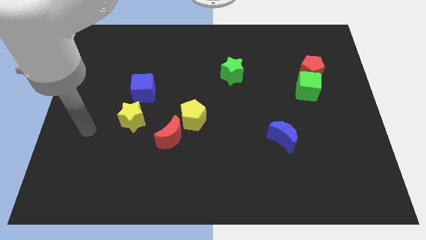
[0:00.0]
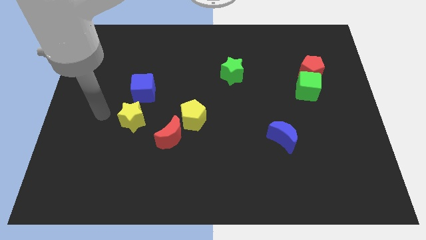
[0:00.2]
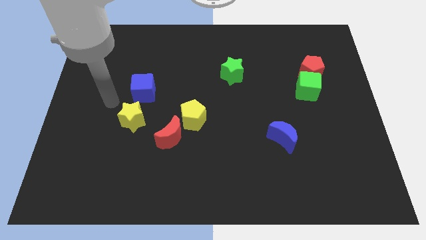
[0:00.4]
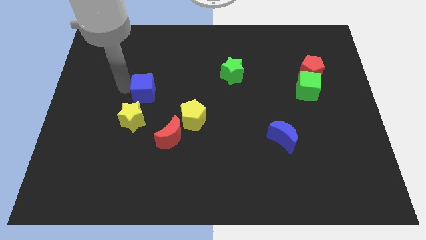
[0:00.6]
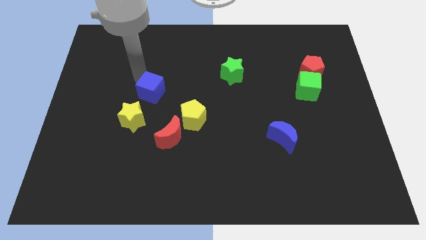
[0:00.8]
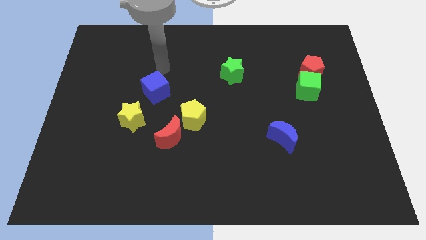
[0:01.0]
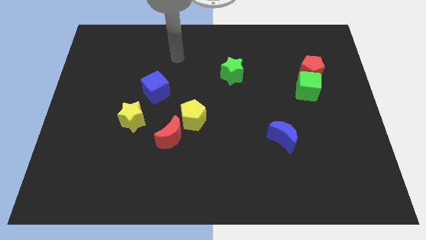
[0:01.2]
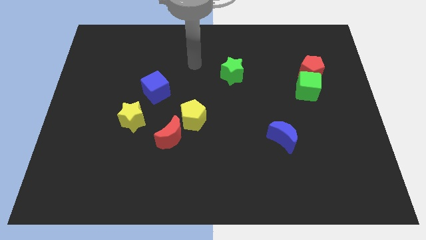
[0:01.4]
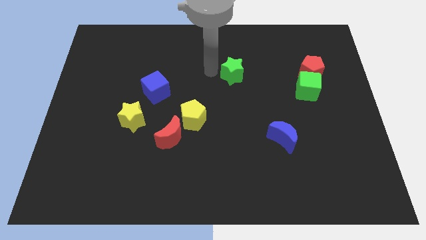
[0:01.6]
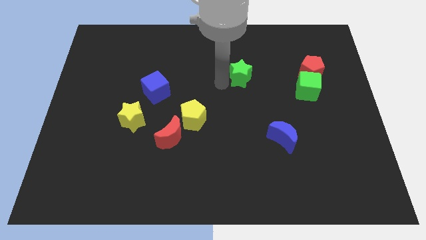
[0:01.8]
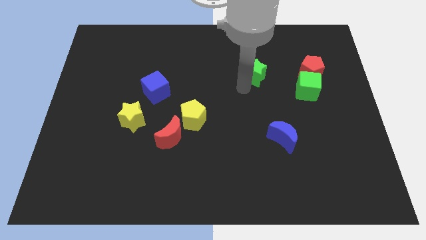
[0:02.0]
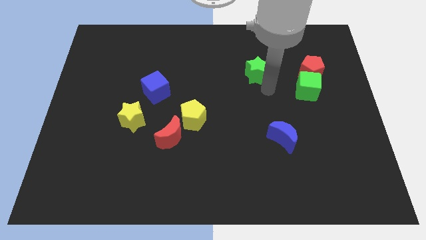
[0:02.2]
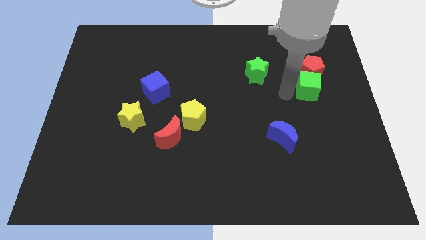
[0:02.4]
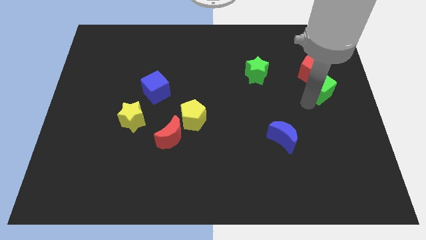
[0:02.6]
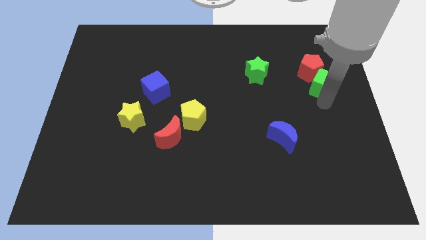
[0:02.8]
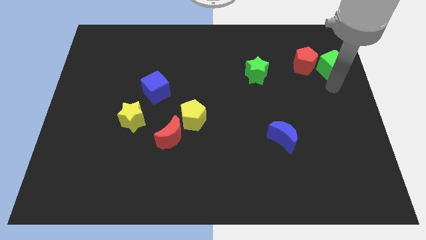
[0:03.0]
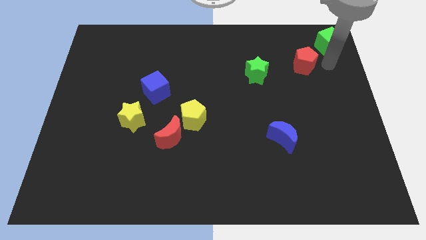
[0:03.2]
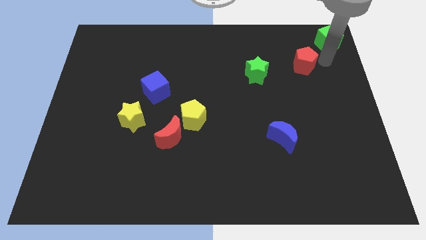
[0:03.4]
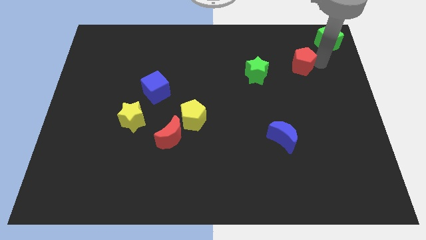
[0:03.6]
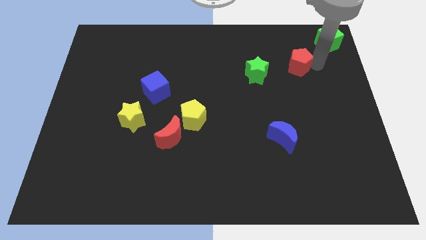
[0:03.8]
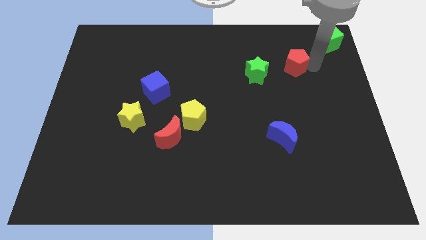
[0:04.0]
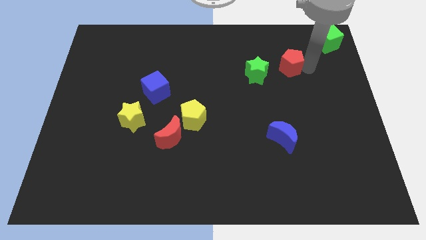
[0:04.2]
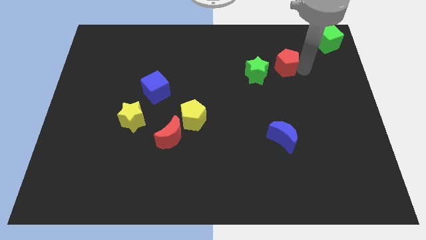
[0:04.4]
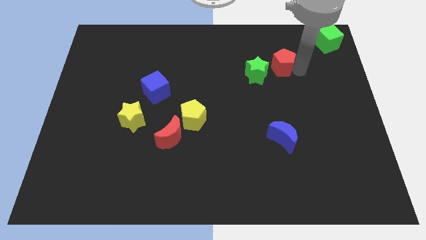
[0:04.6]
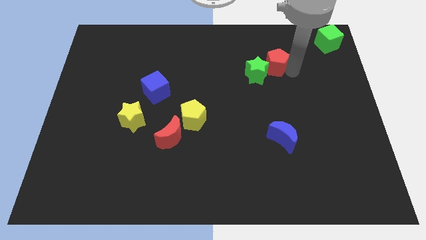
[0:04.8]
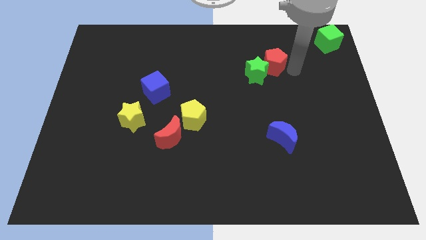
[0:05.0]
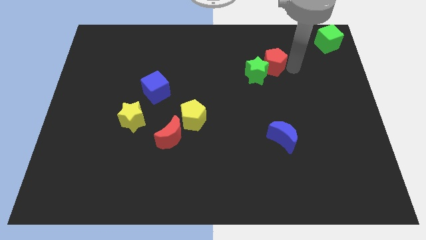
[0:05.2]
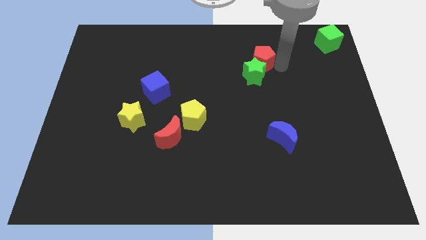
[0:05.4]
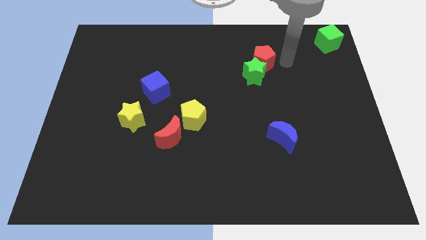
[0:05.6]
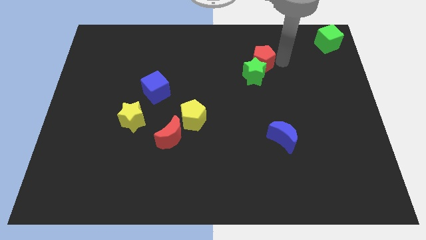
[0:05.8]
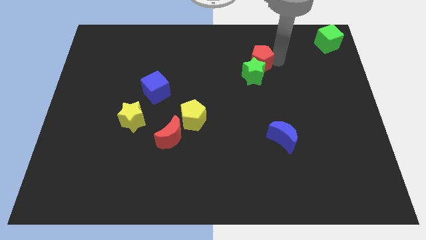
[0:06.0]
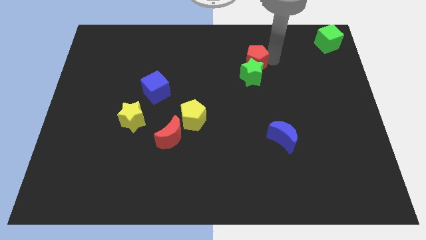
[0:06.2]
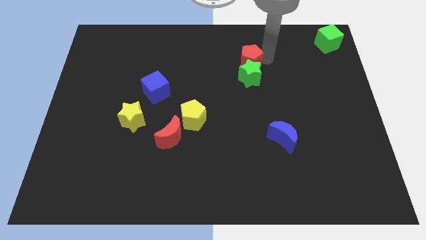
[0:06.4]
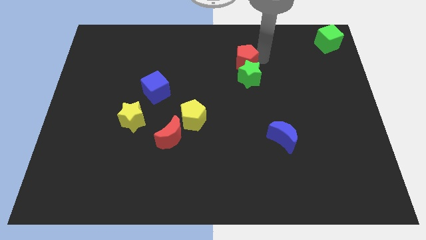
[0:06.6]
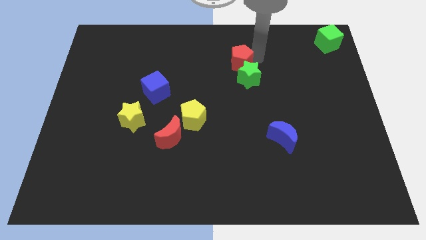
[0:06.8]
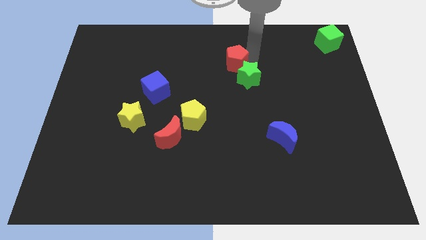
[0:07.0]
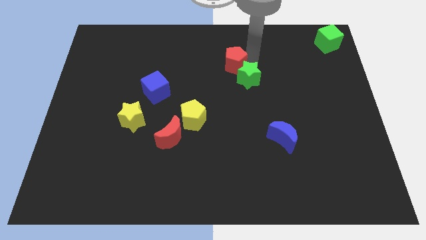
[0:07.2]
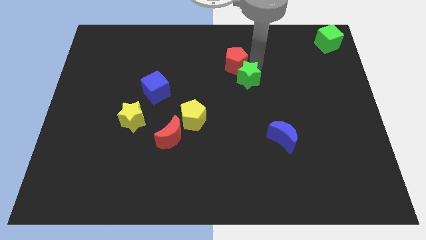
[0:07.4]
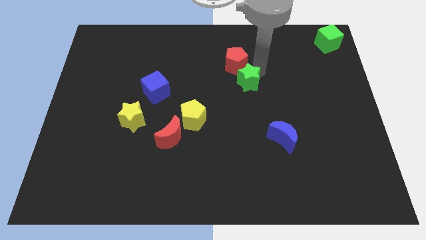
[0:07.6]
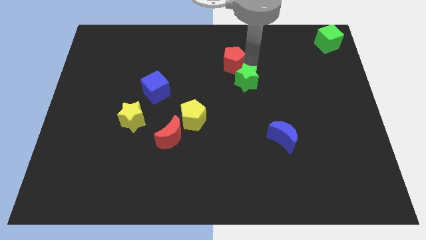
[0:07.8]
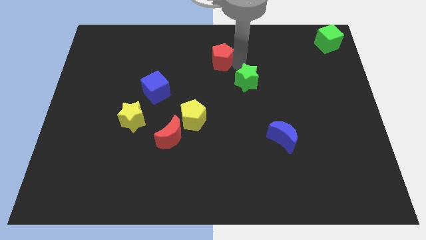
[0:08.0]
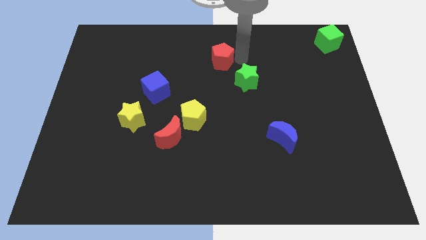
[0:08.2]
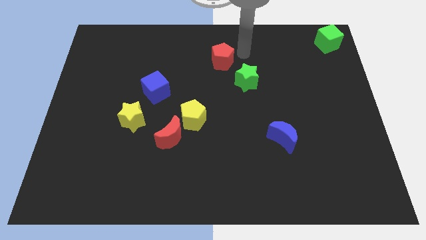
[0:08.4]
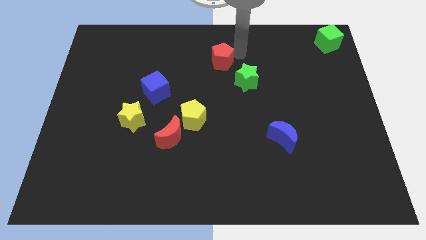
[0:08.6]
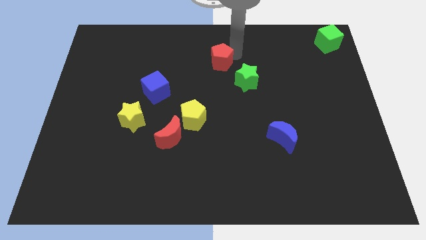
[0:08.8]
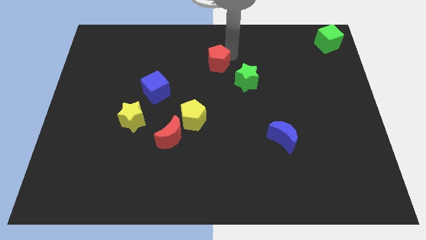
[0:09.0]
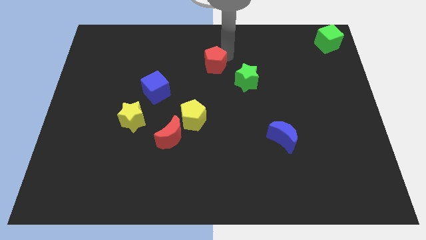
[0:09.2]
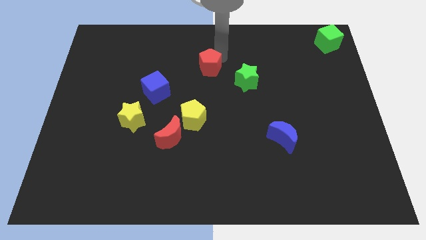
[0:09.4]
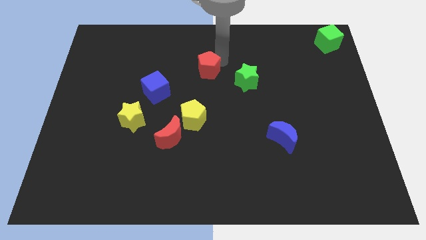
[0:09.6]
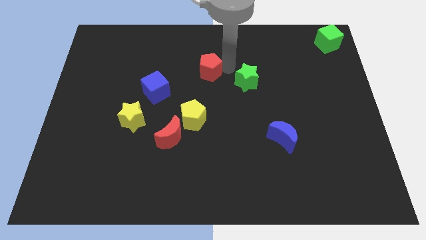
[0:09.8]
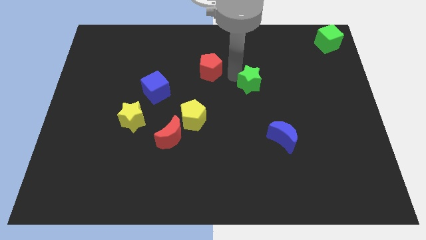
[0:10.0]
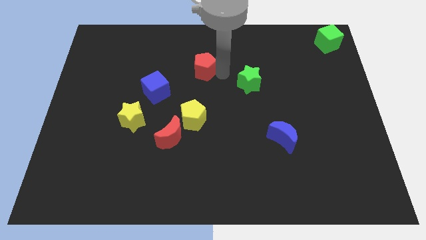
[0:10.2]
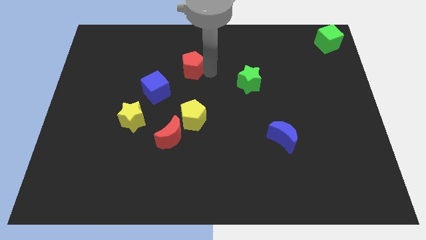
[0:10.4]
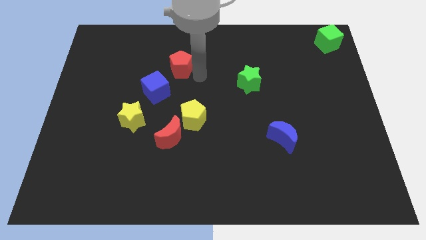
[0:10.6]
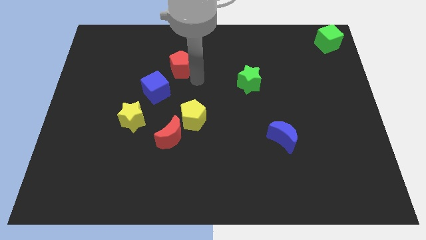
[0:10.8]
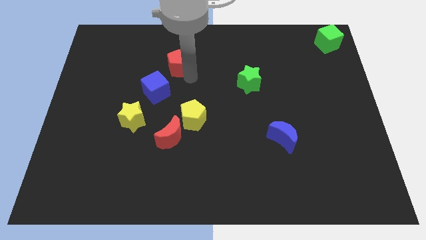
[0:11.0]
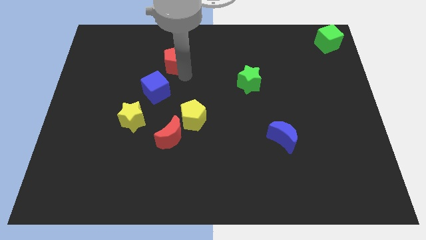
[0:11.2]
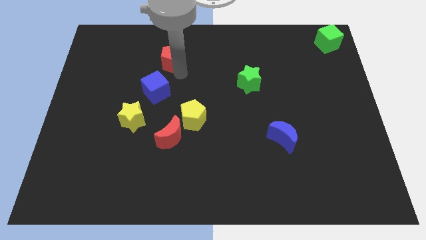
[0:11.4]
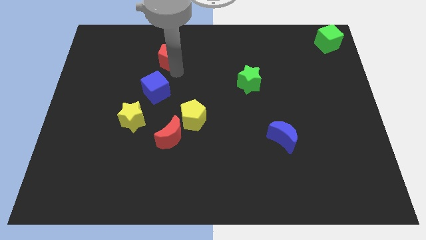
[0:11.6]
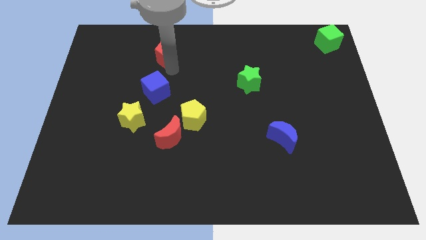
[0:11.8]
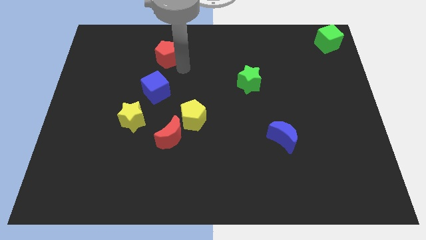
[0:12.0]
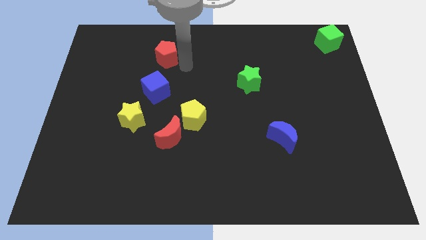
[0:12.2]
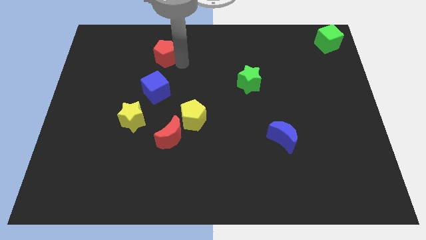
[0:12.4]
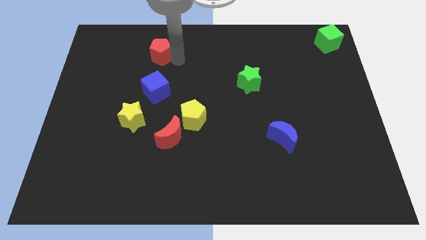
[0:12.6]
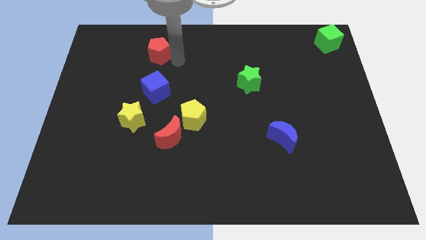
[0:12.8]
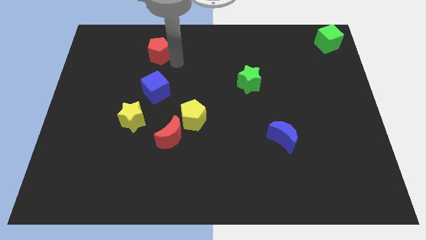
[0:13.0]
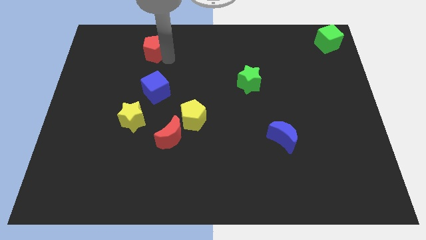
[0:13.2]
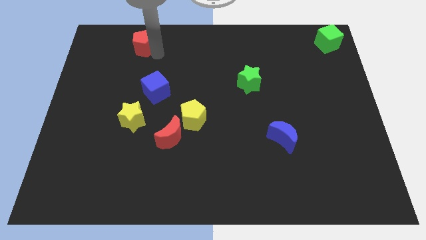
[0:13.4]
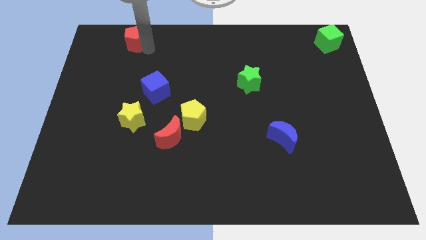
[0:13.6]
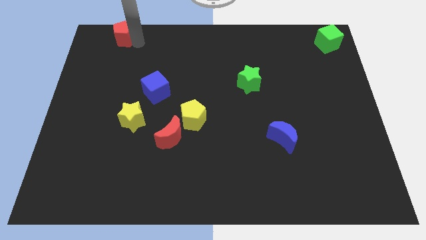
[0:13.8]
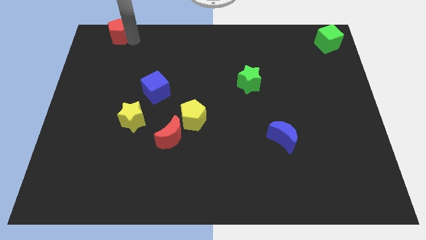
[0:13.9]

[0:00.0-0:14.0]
move the red pentagon to the top left of the board
